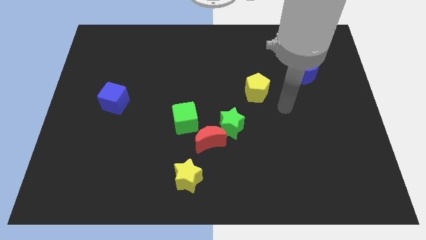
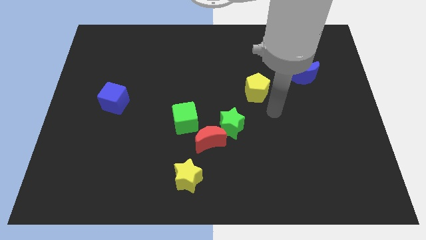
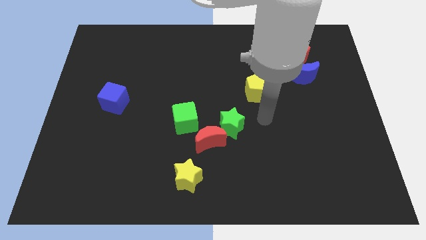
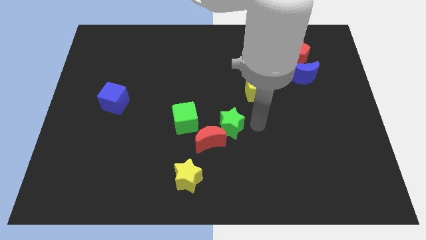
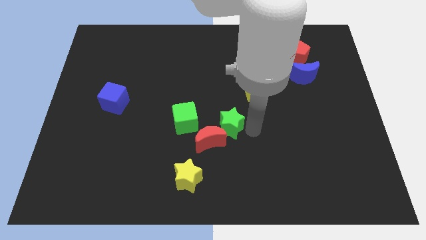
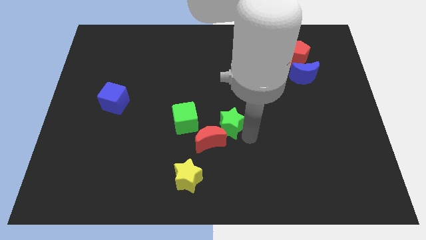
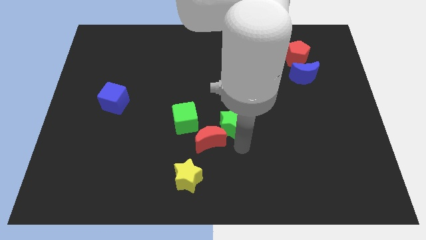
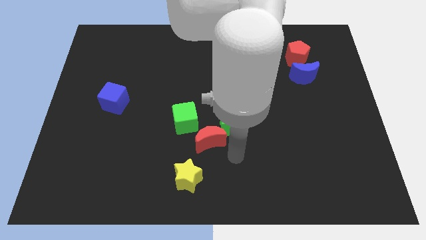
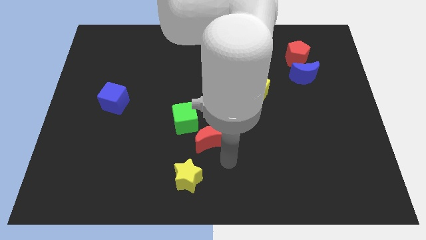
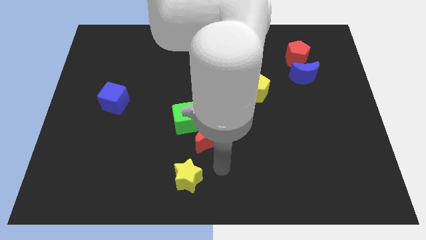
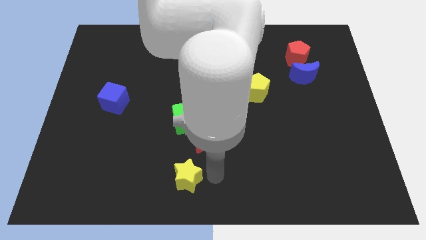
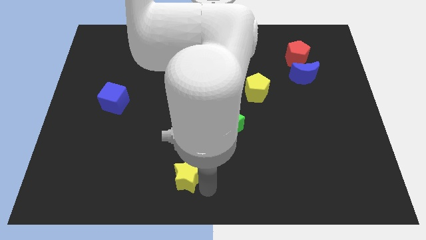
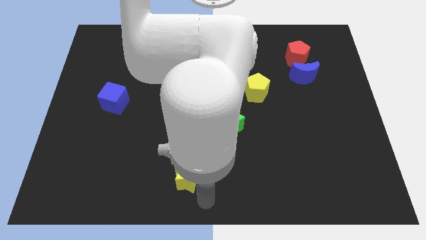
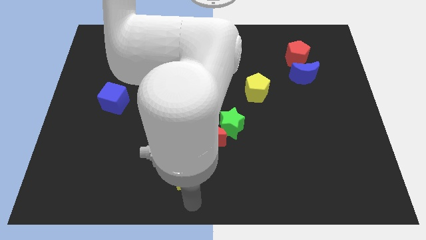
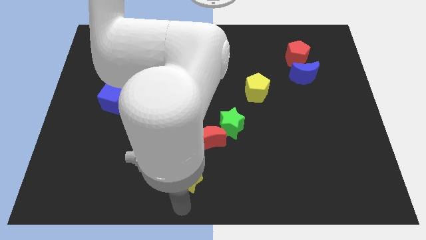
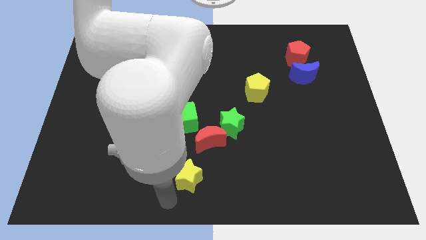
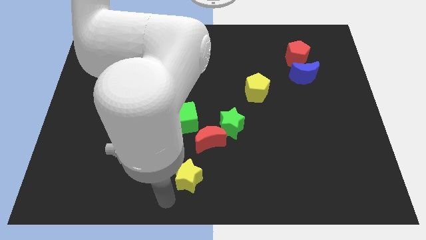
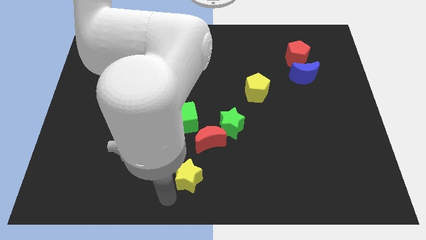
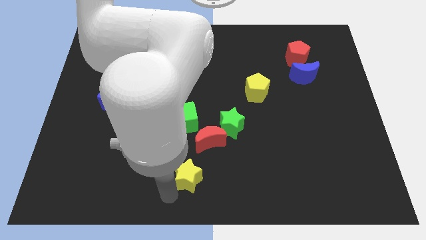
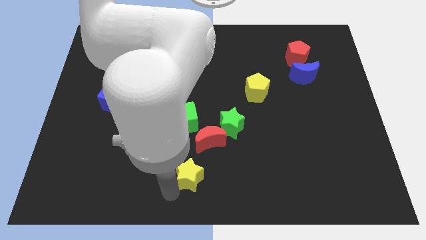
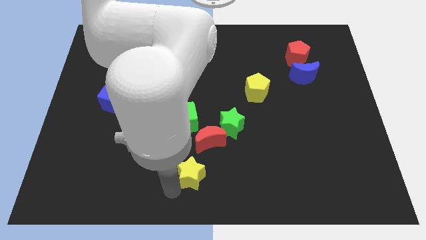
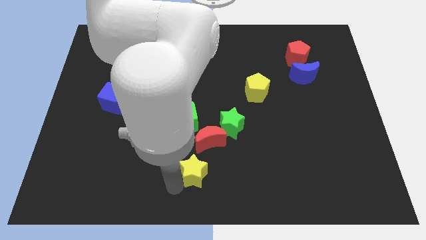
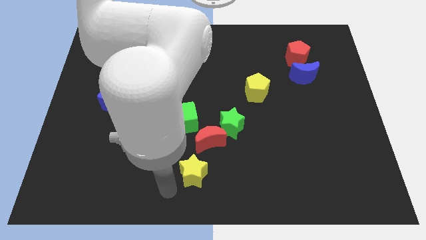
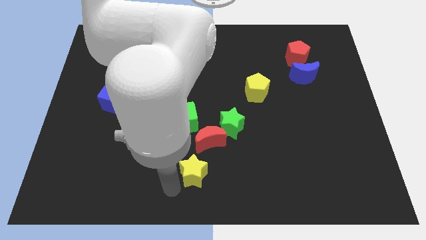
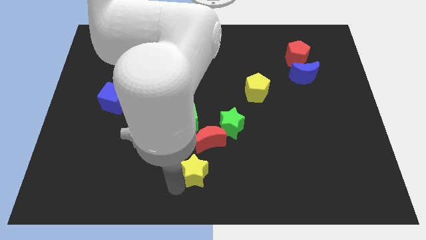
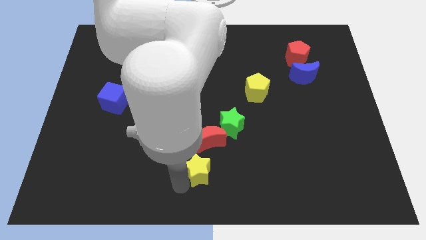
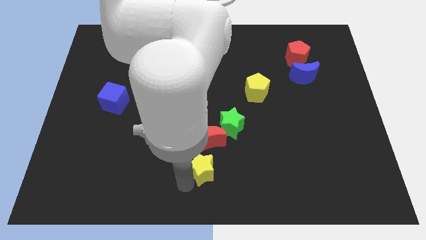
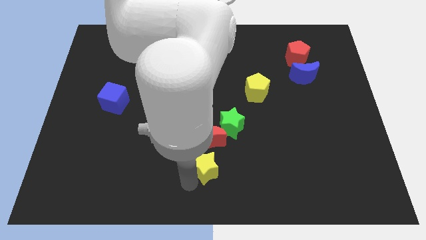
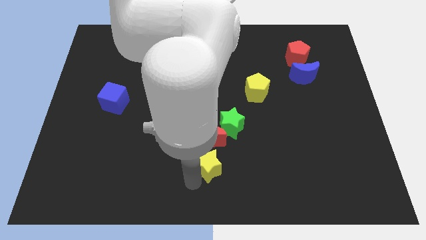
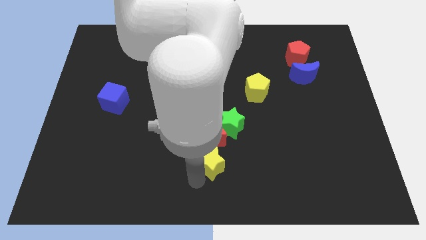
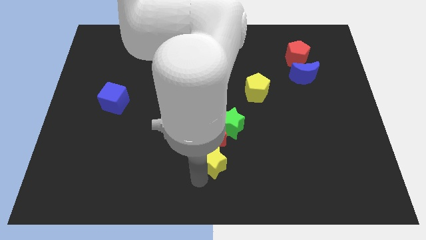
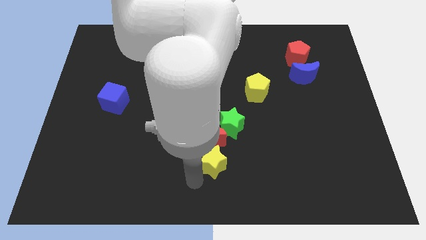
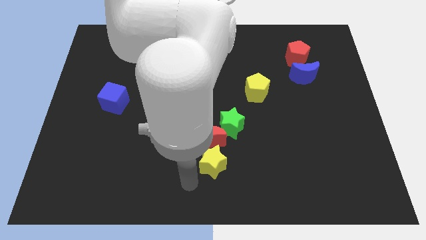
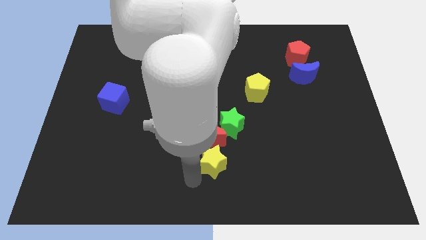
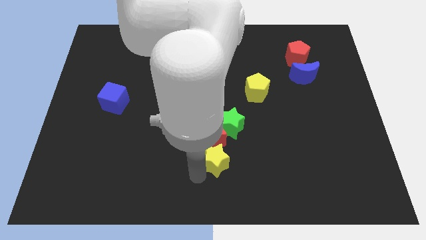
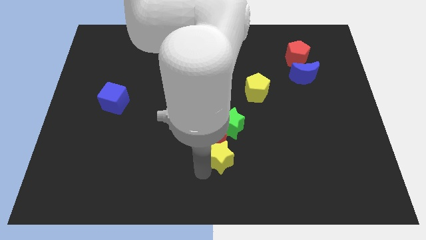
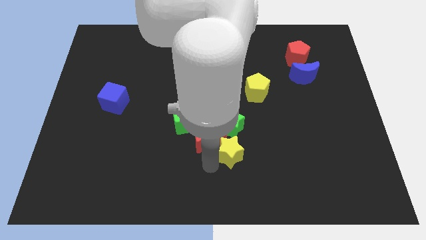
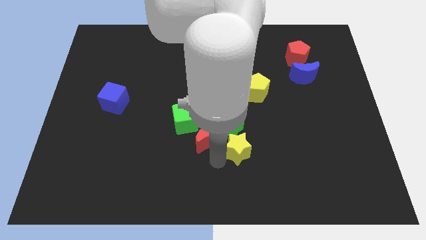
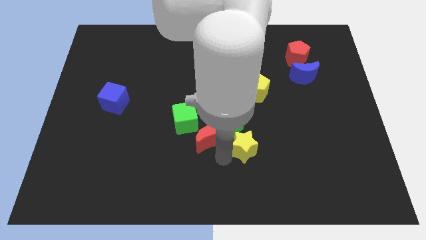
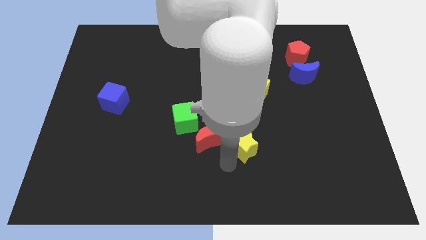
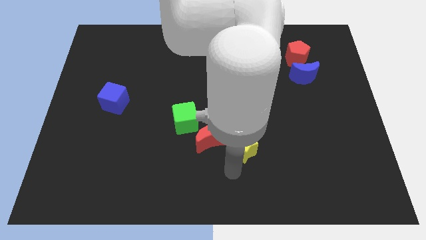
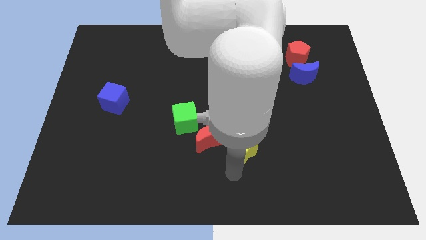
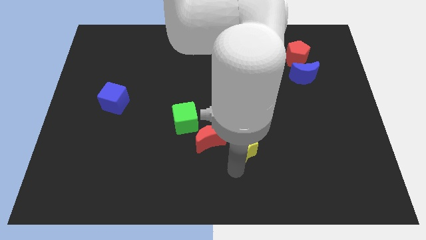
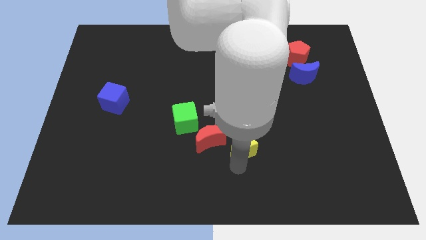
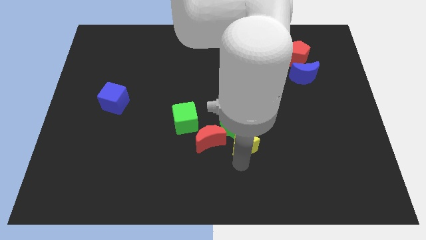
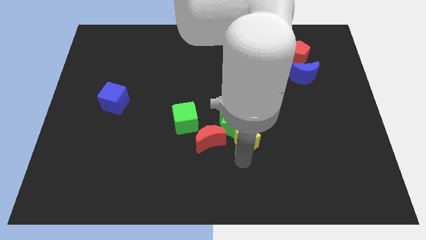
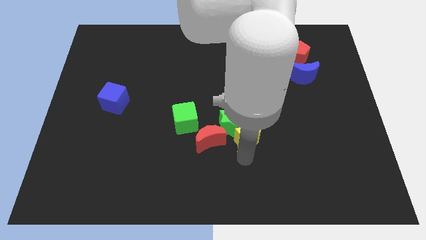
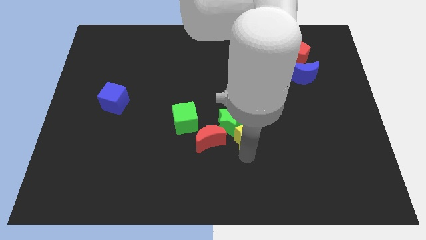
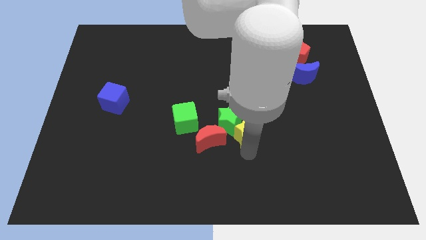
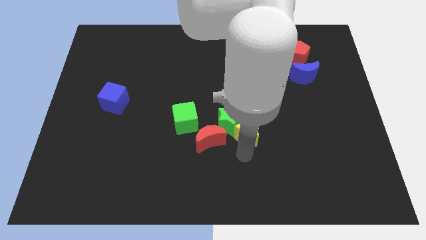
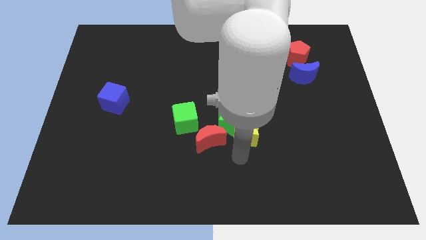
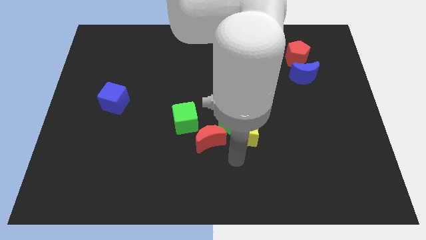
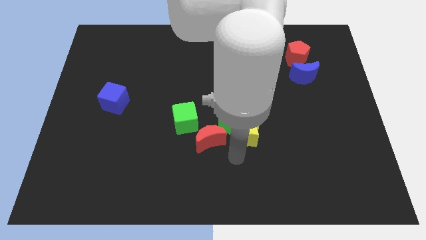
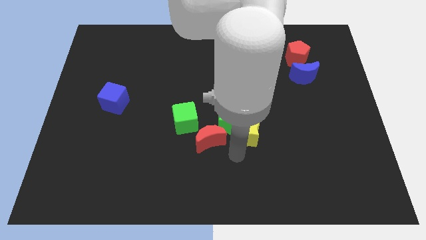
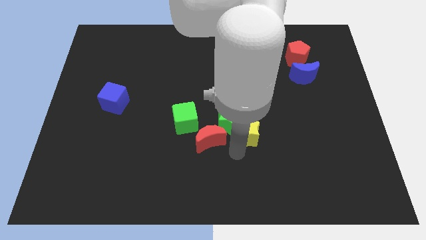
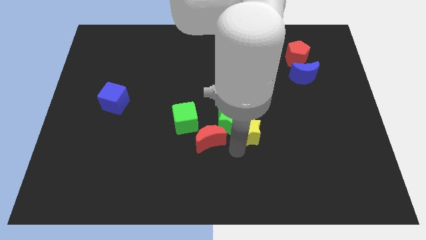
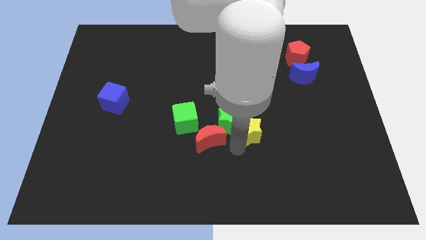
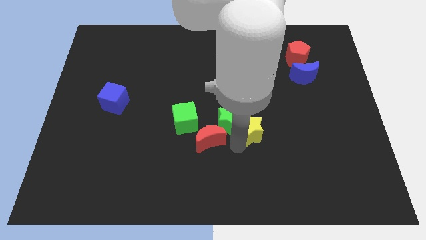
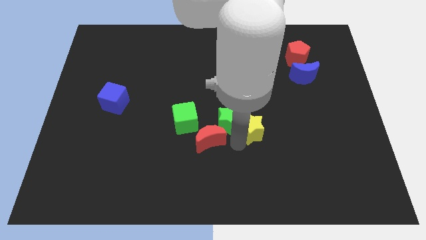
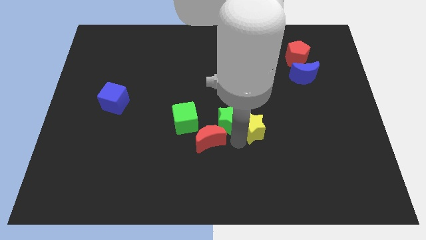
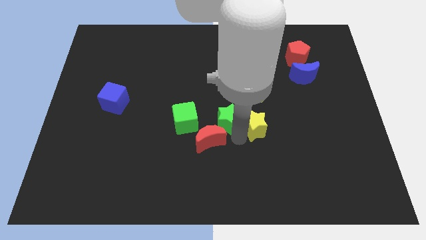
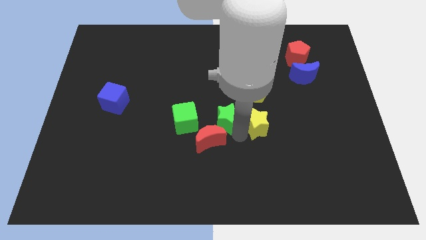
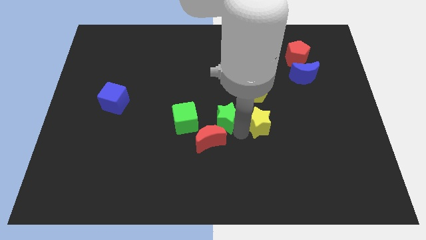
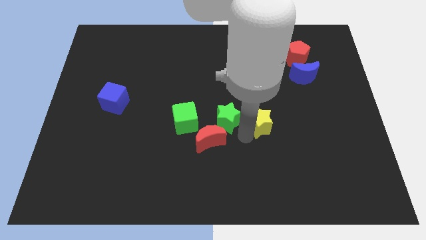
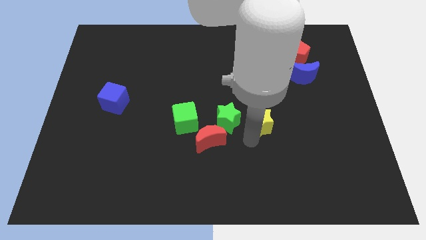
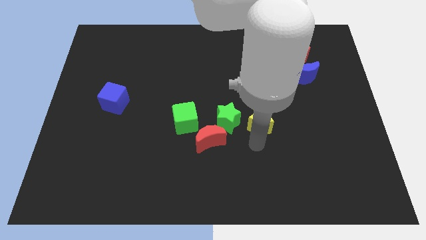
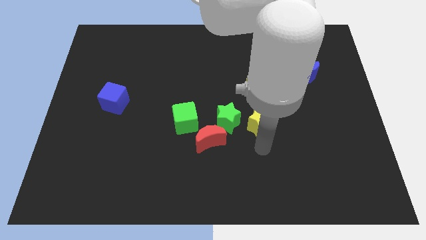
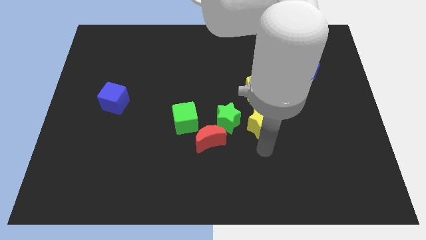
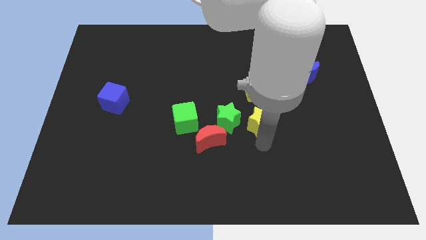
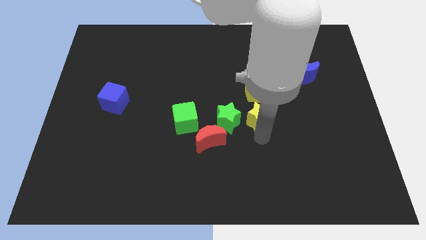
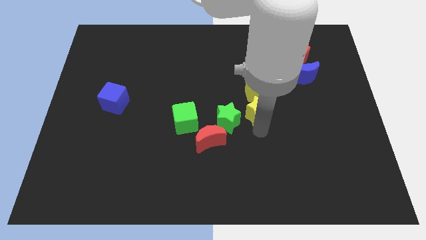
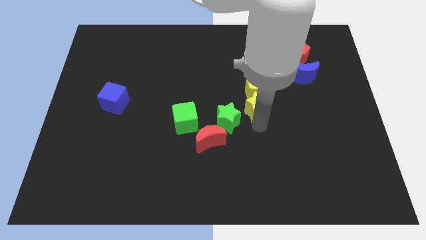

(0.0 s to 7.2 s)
slide the yellow star close to the yellow pentagon

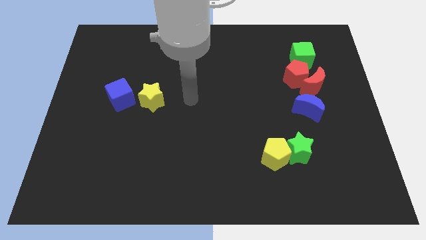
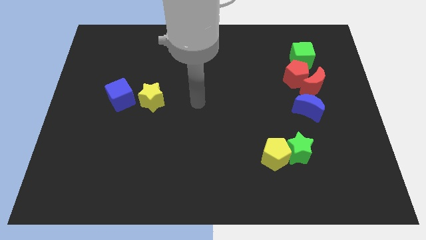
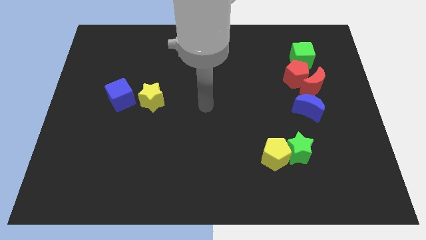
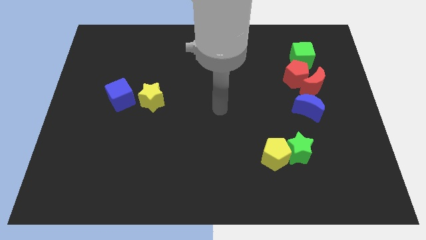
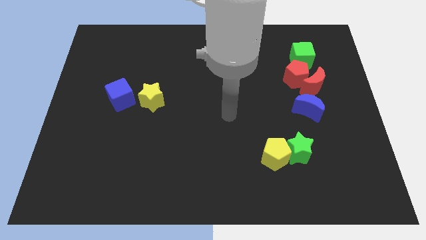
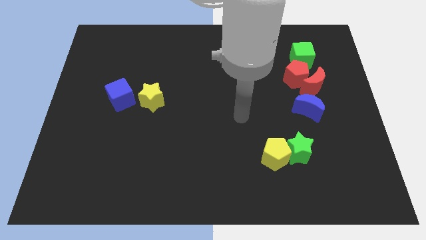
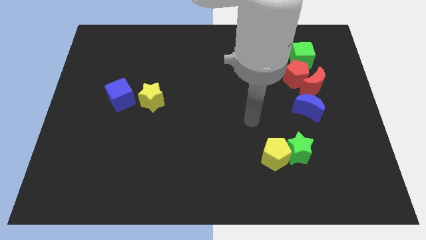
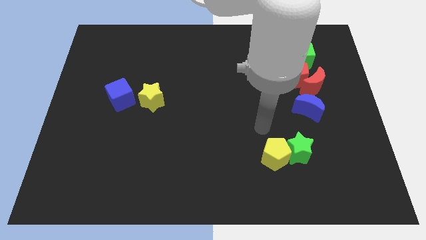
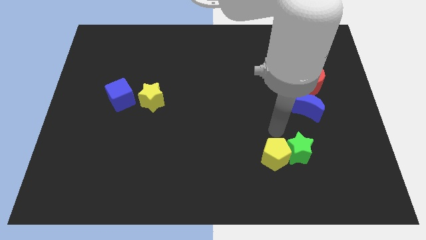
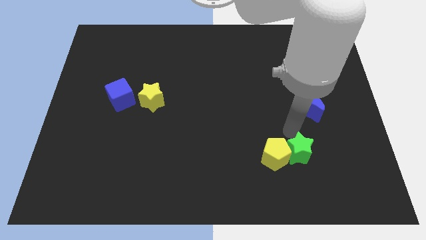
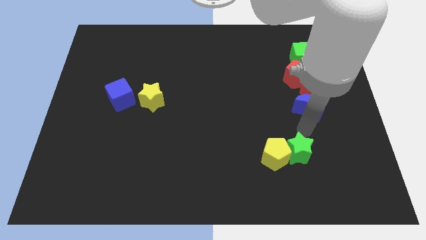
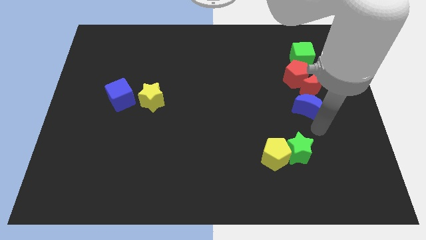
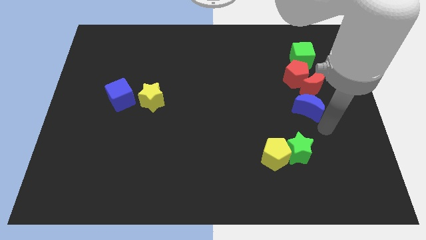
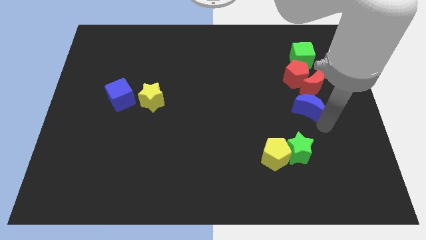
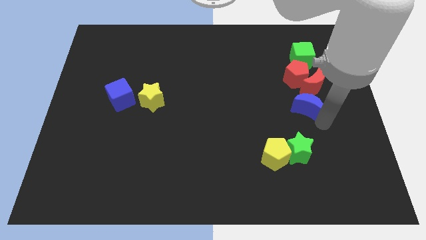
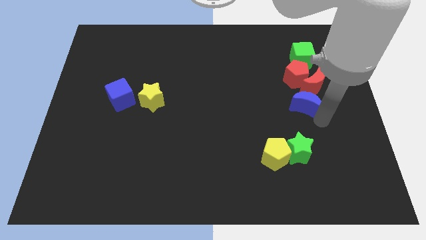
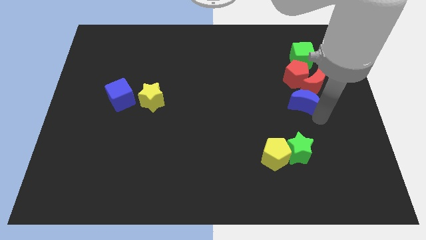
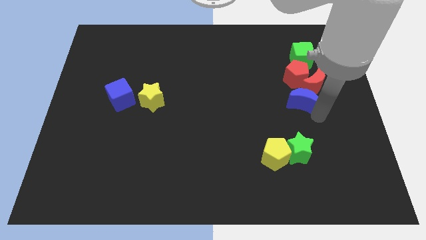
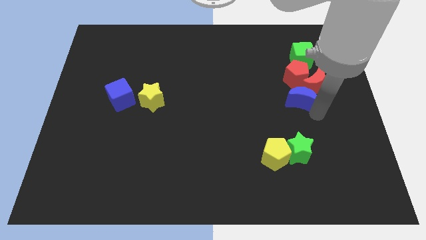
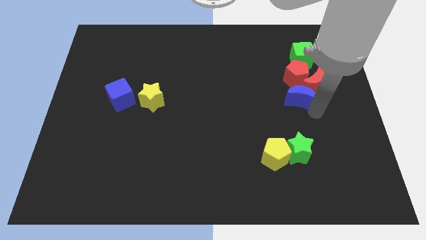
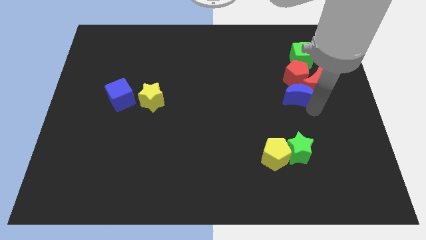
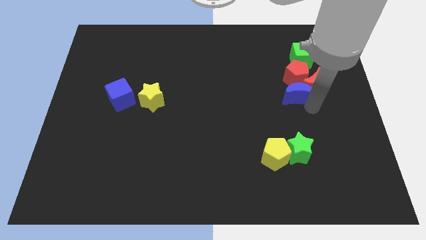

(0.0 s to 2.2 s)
move the blue moon close to the red pentagon
